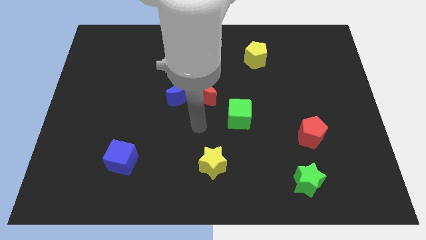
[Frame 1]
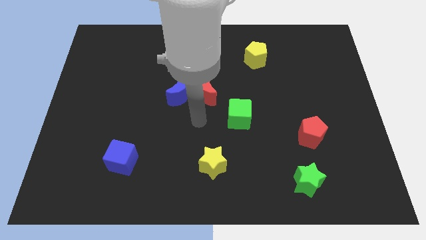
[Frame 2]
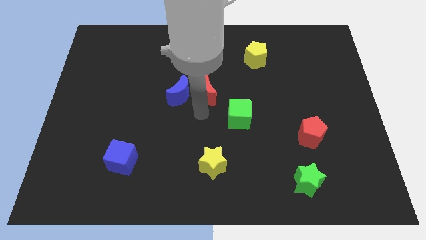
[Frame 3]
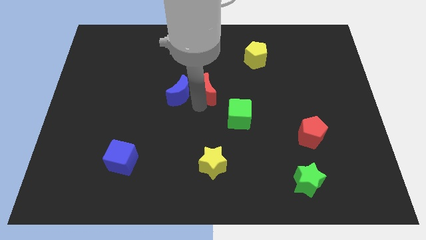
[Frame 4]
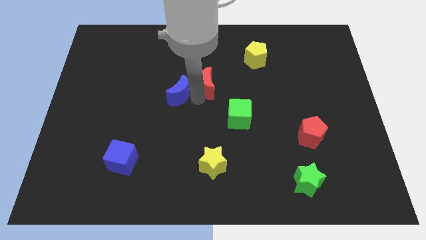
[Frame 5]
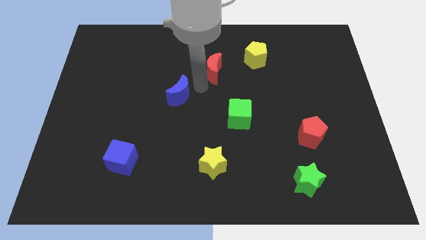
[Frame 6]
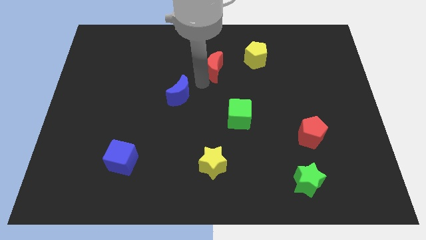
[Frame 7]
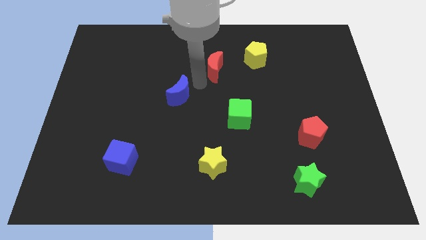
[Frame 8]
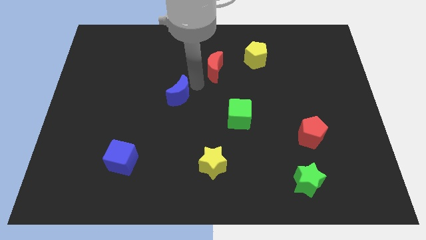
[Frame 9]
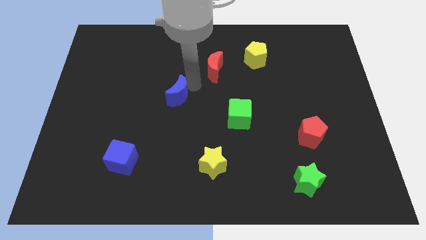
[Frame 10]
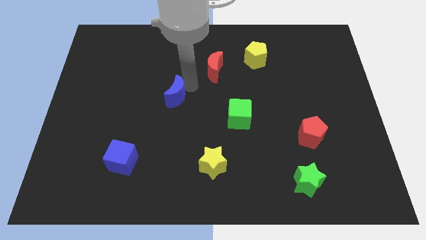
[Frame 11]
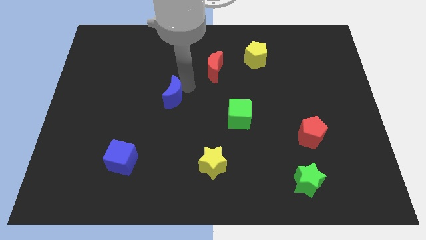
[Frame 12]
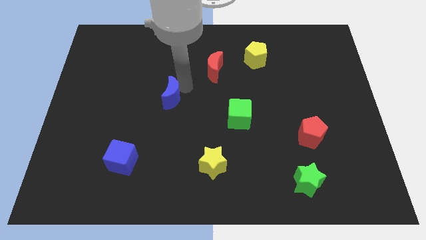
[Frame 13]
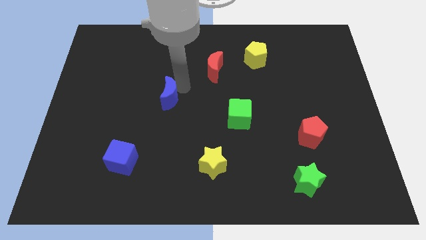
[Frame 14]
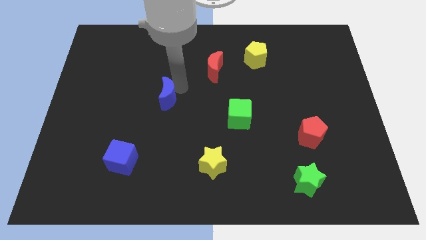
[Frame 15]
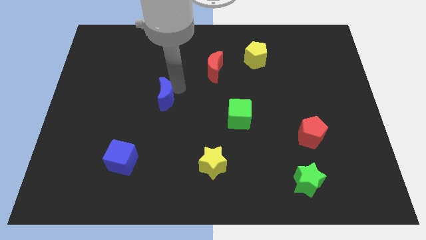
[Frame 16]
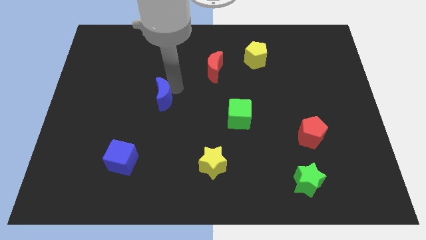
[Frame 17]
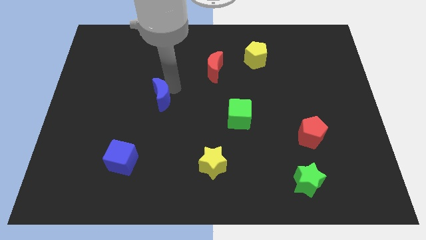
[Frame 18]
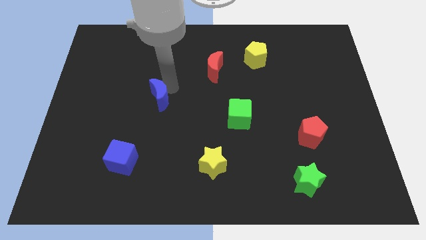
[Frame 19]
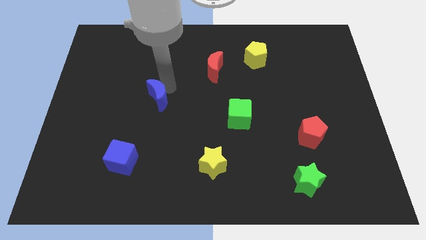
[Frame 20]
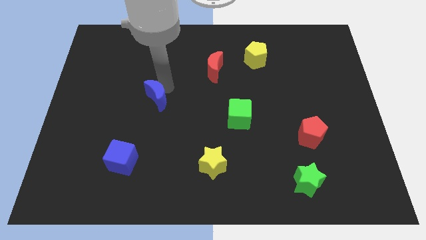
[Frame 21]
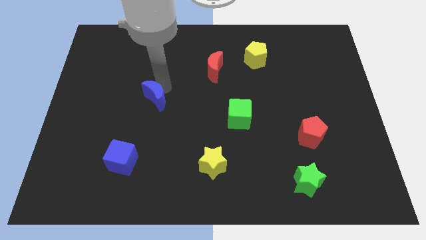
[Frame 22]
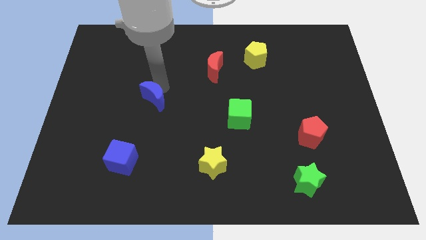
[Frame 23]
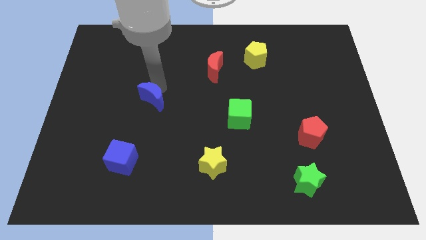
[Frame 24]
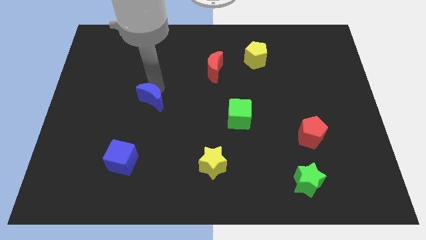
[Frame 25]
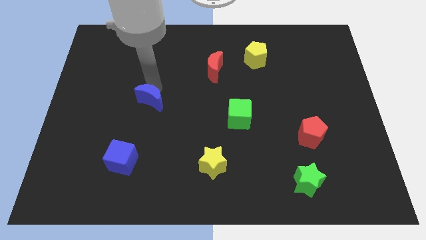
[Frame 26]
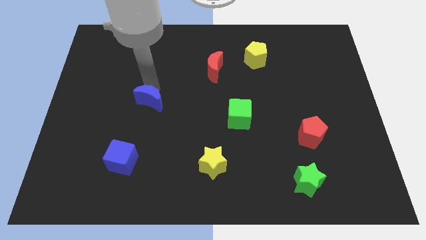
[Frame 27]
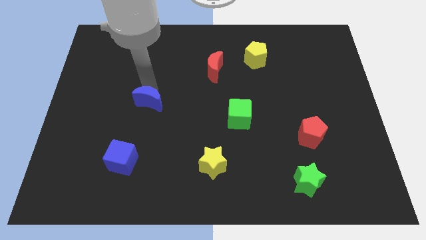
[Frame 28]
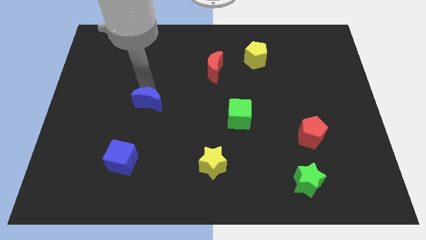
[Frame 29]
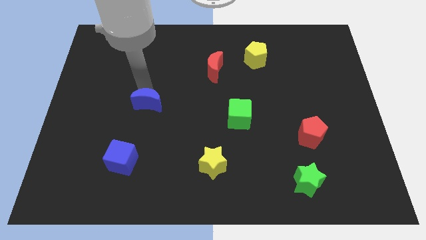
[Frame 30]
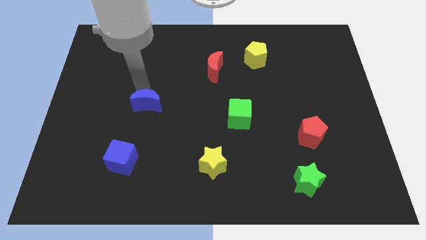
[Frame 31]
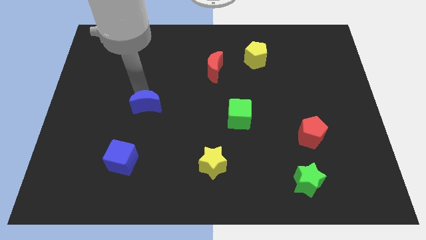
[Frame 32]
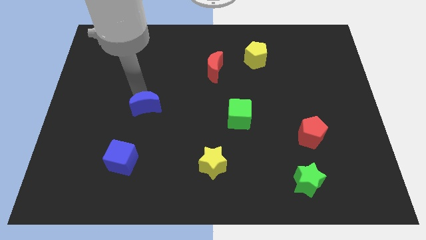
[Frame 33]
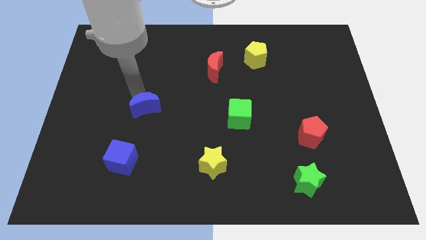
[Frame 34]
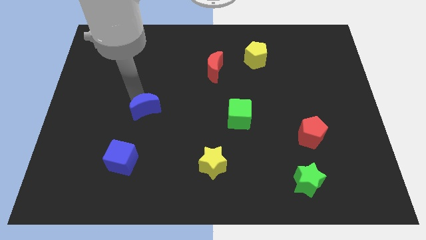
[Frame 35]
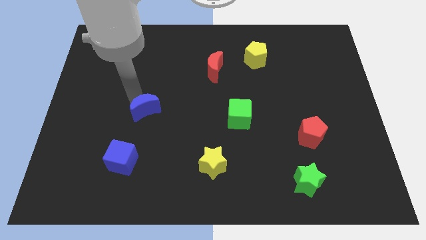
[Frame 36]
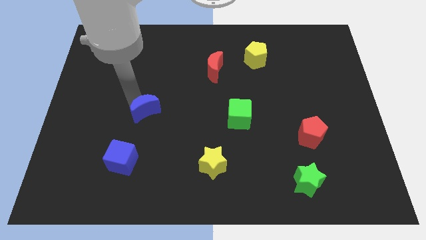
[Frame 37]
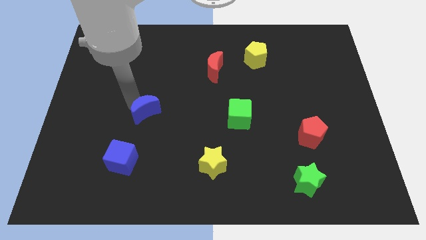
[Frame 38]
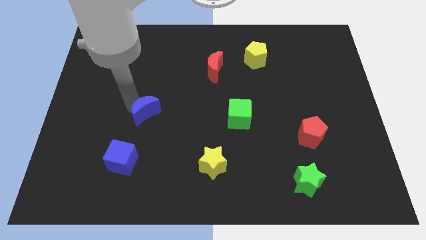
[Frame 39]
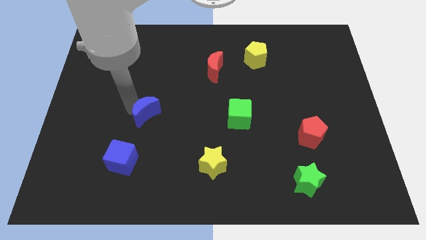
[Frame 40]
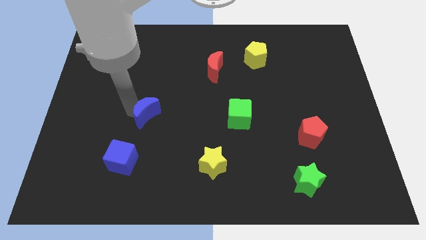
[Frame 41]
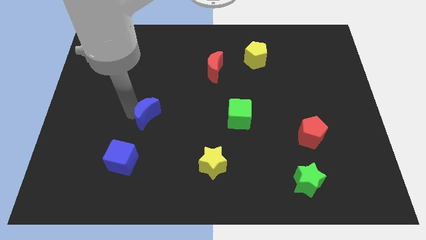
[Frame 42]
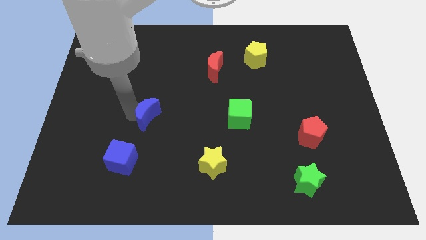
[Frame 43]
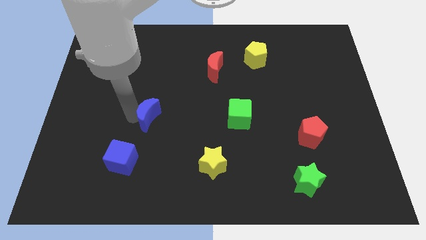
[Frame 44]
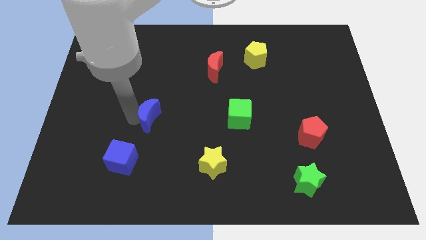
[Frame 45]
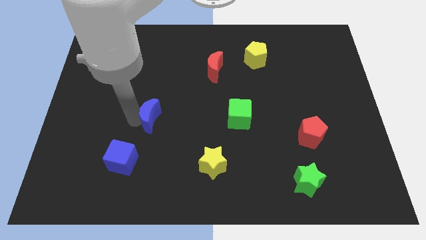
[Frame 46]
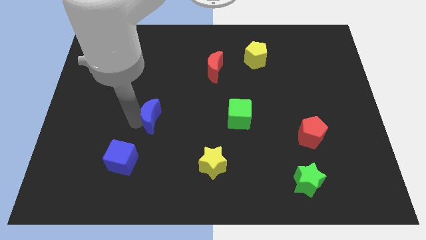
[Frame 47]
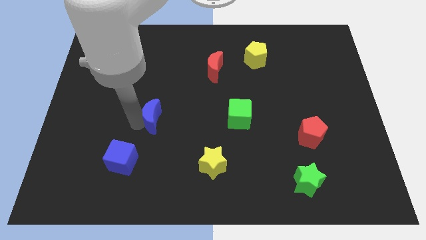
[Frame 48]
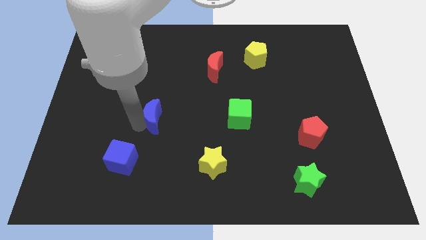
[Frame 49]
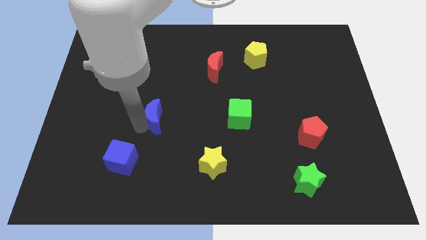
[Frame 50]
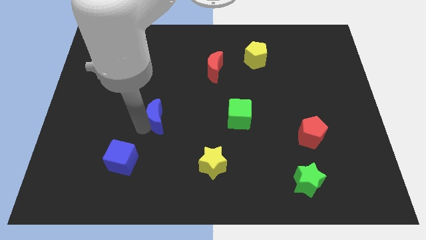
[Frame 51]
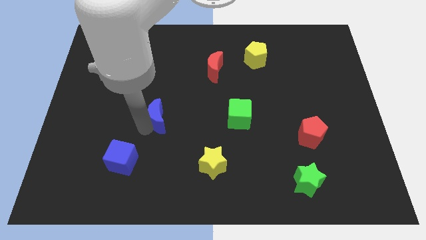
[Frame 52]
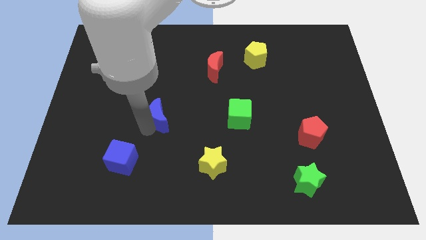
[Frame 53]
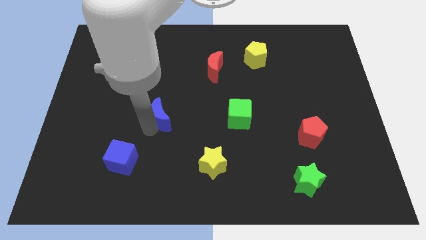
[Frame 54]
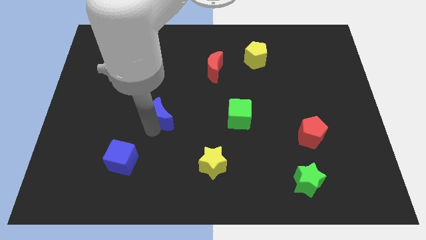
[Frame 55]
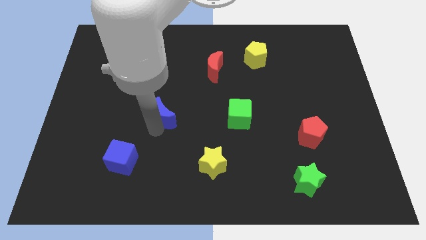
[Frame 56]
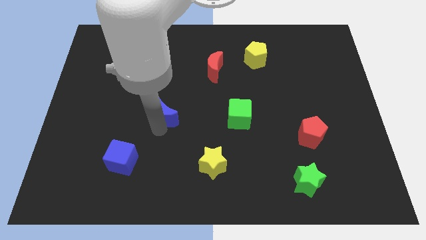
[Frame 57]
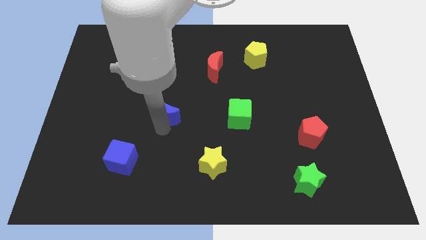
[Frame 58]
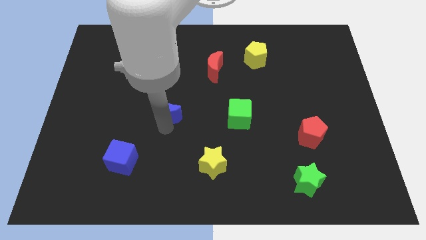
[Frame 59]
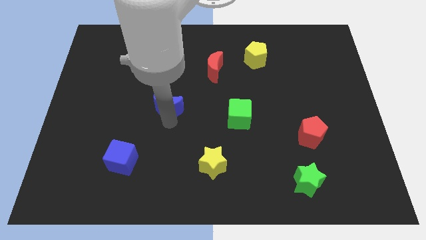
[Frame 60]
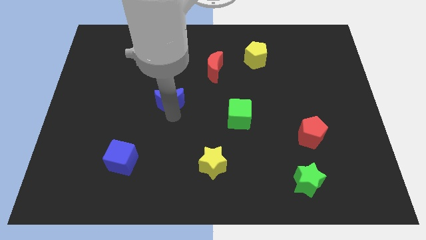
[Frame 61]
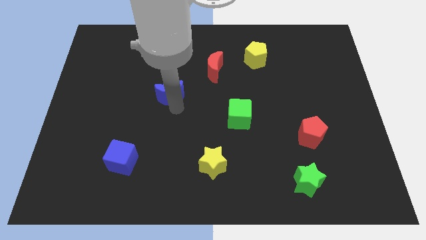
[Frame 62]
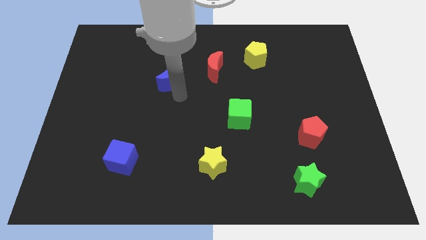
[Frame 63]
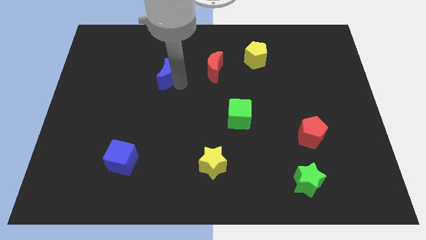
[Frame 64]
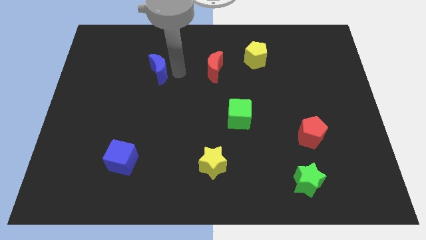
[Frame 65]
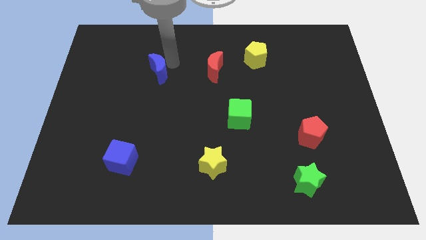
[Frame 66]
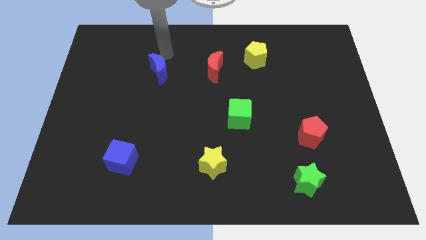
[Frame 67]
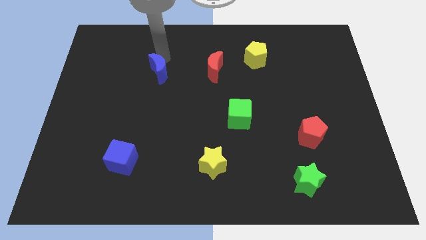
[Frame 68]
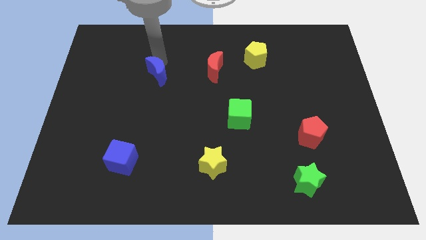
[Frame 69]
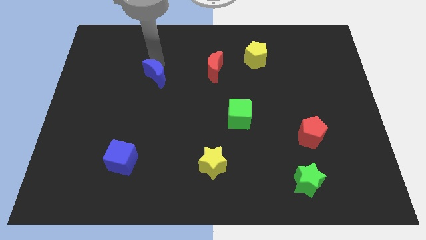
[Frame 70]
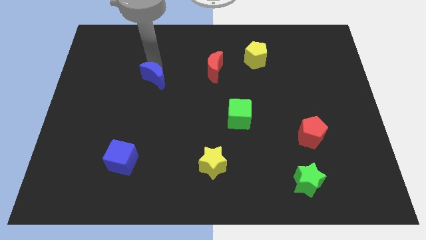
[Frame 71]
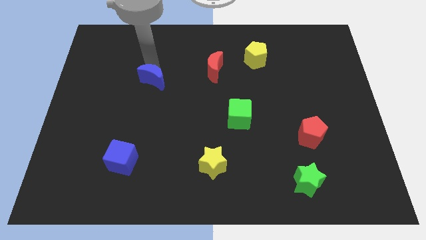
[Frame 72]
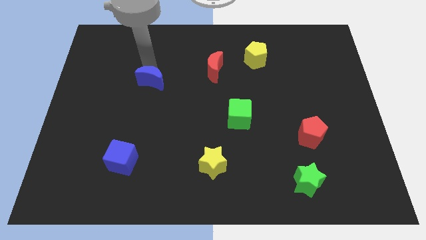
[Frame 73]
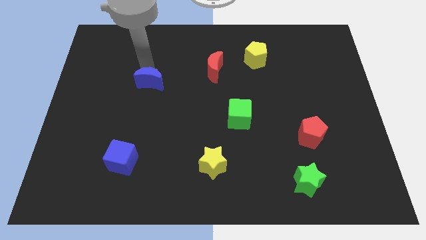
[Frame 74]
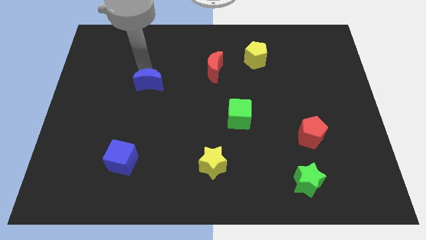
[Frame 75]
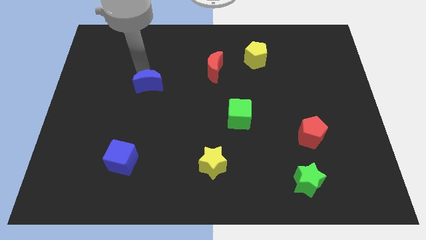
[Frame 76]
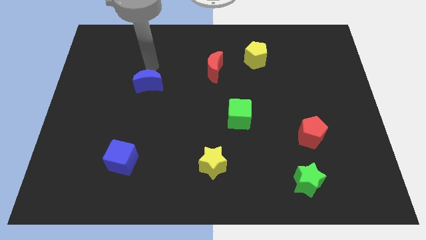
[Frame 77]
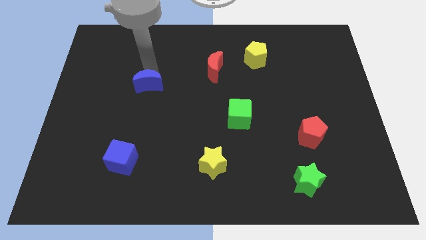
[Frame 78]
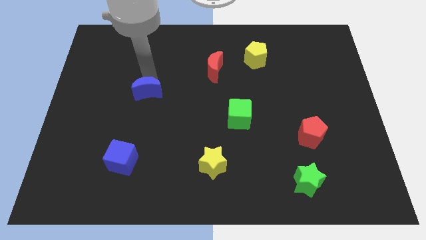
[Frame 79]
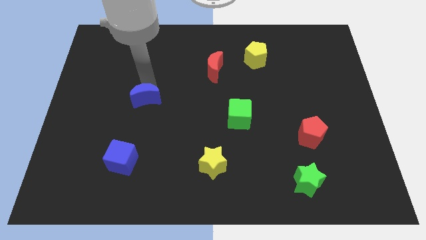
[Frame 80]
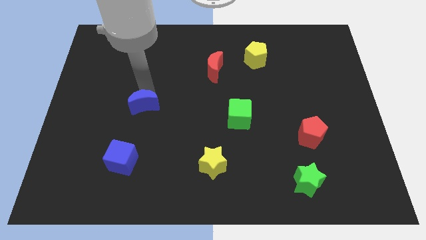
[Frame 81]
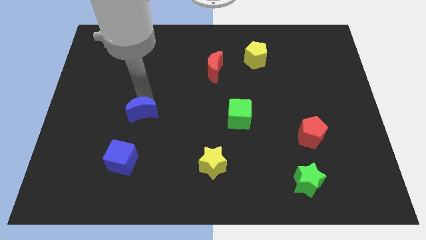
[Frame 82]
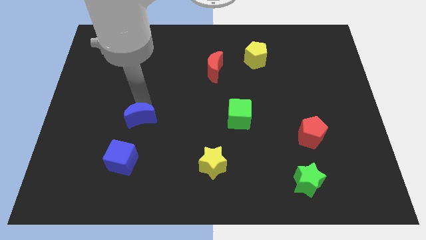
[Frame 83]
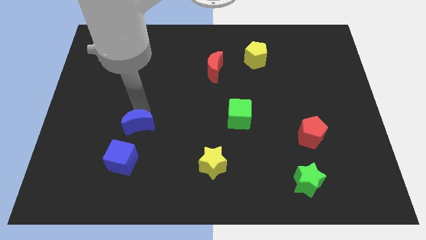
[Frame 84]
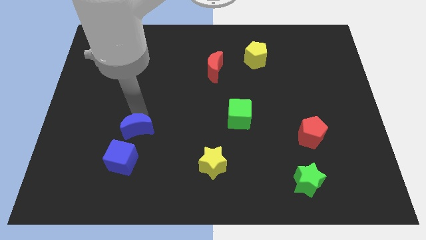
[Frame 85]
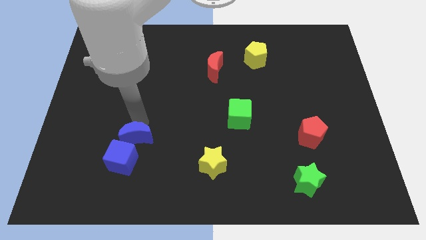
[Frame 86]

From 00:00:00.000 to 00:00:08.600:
slide the blue moon towards the blue cube
